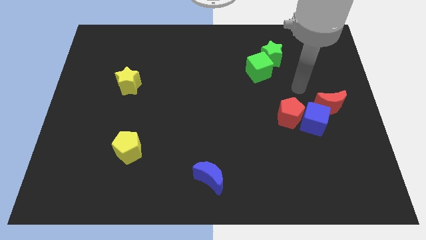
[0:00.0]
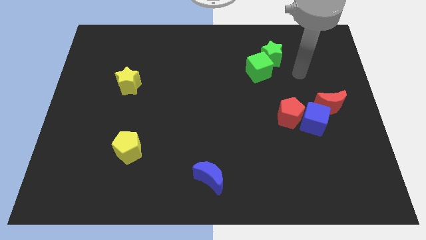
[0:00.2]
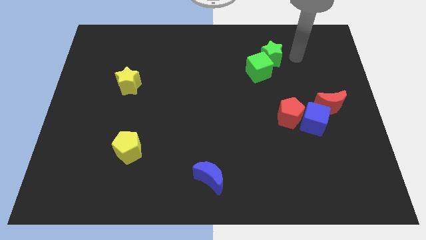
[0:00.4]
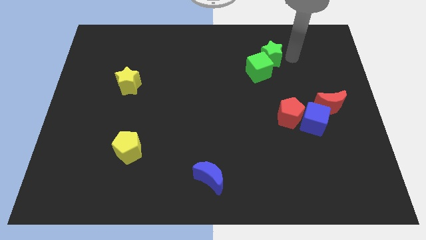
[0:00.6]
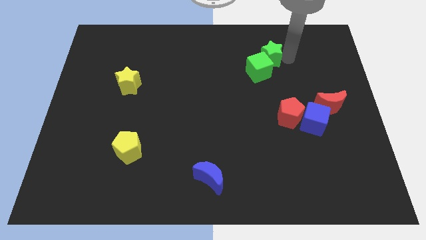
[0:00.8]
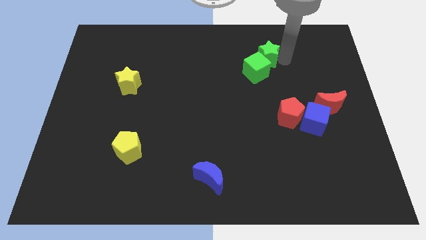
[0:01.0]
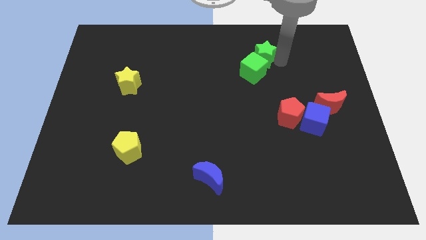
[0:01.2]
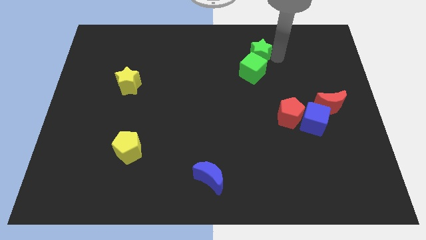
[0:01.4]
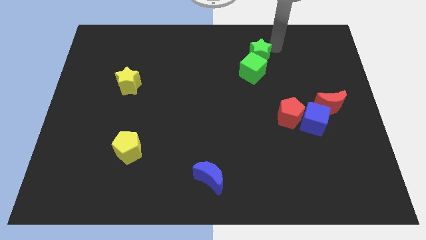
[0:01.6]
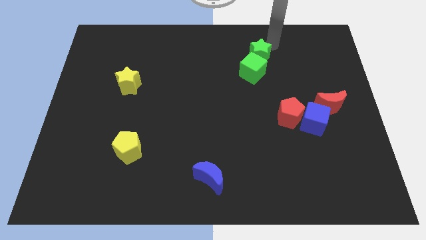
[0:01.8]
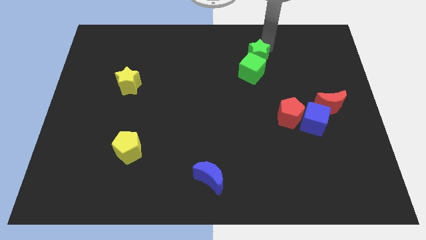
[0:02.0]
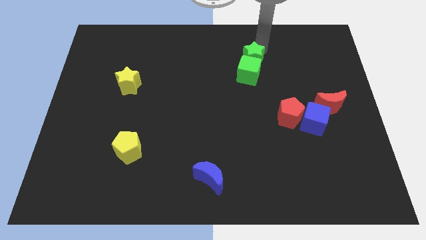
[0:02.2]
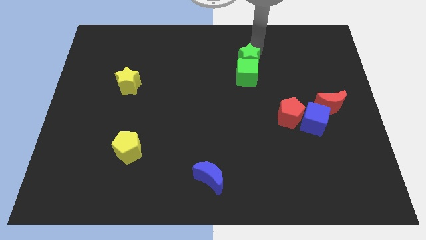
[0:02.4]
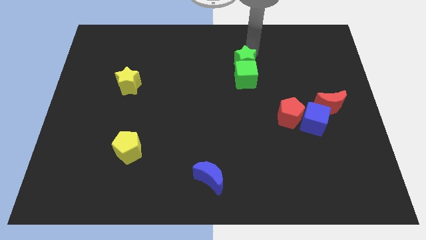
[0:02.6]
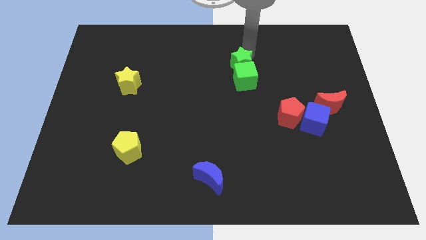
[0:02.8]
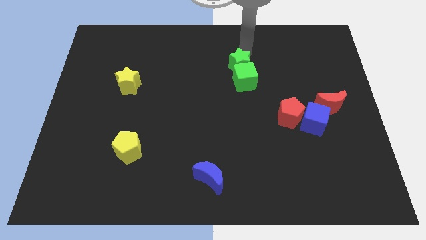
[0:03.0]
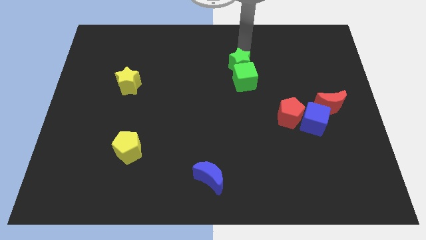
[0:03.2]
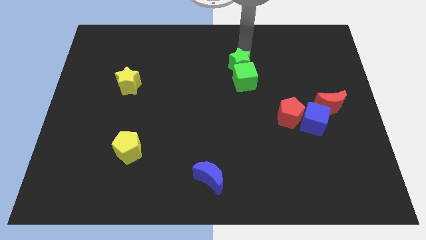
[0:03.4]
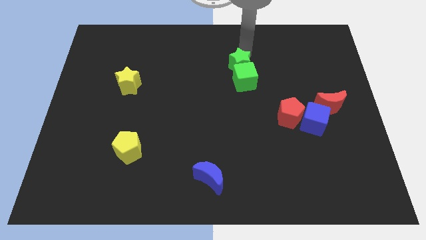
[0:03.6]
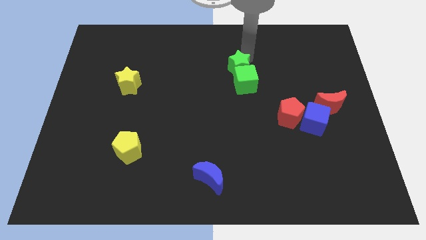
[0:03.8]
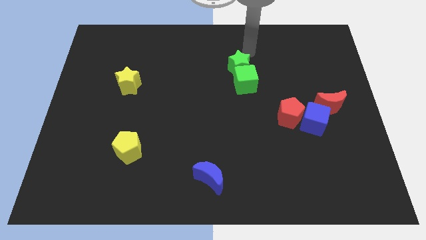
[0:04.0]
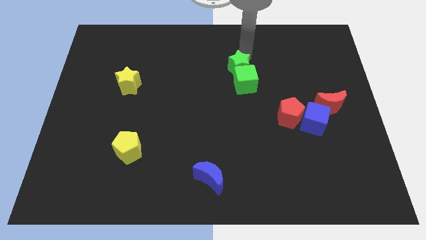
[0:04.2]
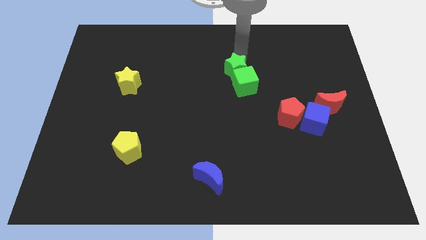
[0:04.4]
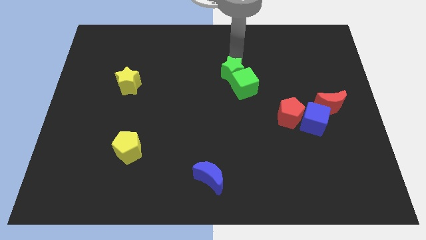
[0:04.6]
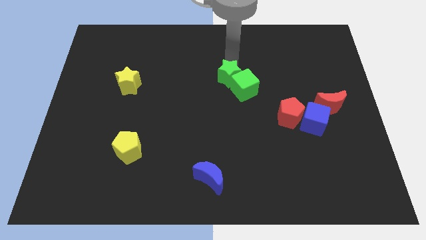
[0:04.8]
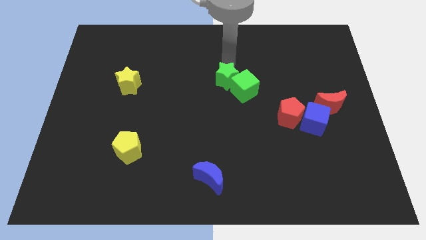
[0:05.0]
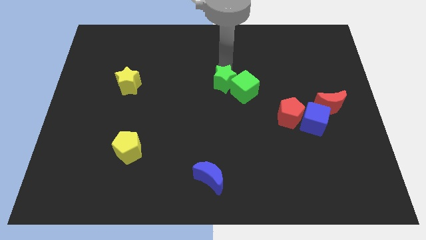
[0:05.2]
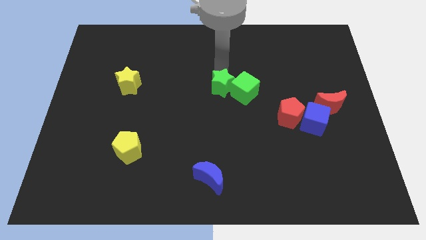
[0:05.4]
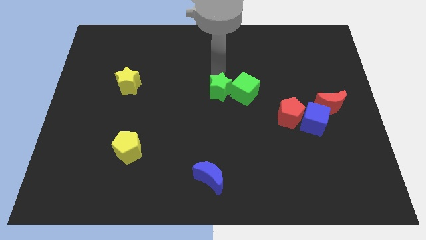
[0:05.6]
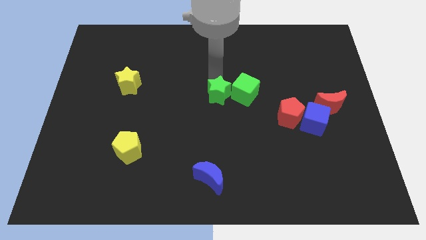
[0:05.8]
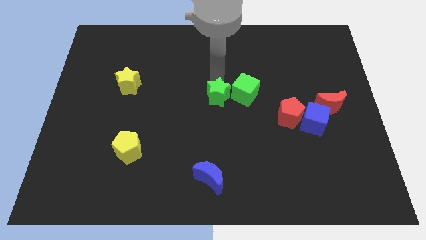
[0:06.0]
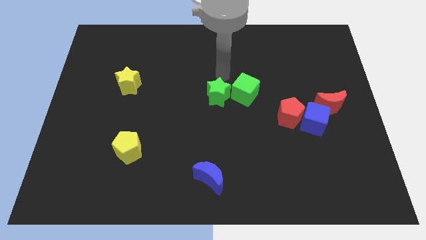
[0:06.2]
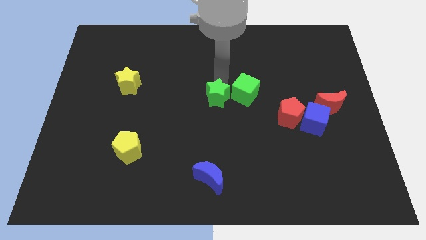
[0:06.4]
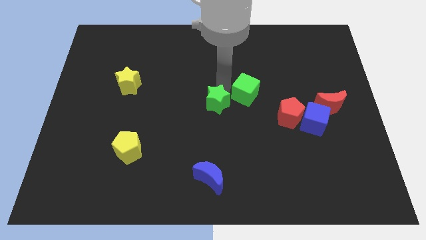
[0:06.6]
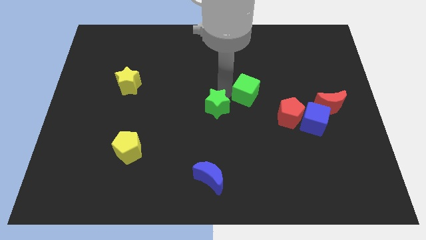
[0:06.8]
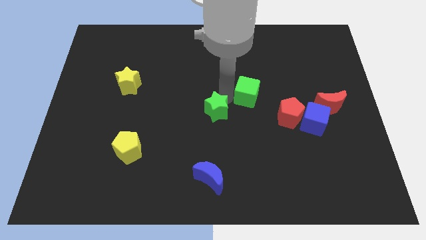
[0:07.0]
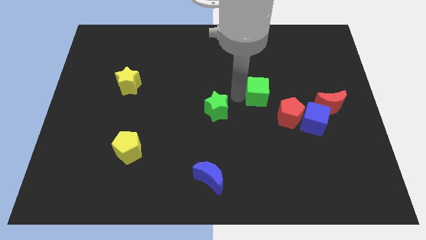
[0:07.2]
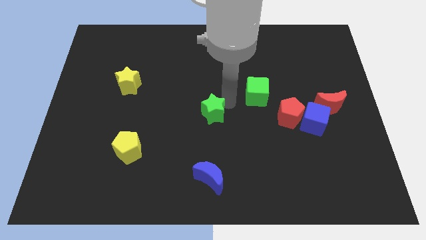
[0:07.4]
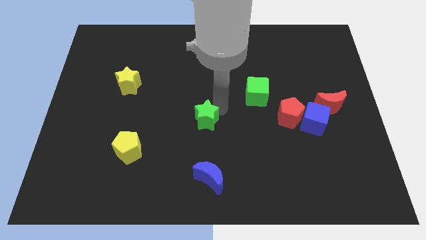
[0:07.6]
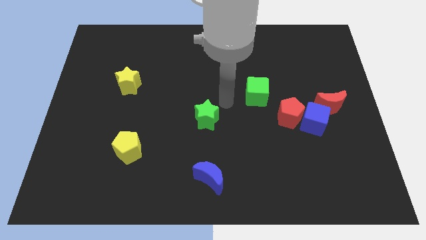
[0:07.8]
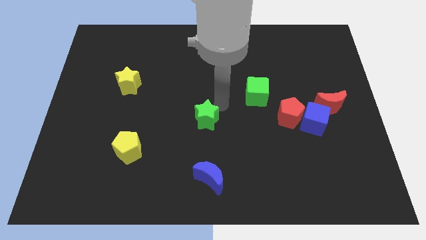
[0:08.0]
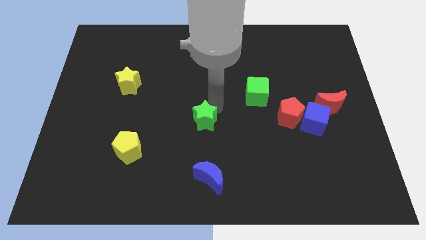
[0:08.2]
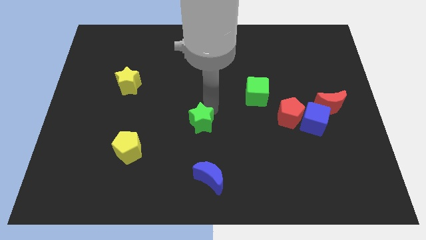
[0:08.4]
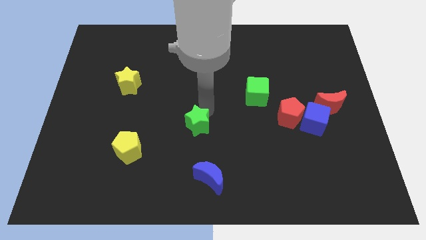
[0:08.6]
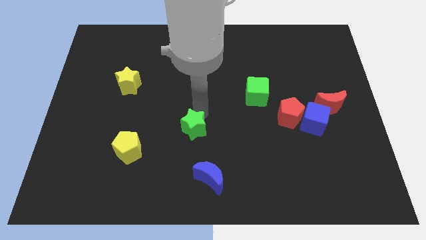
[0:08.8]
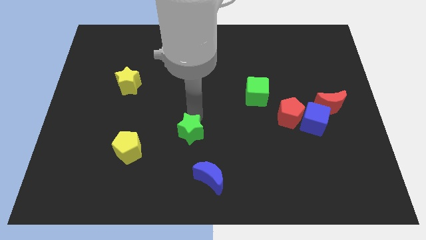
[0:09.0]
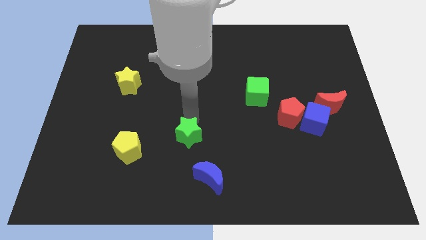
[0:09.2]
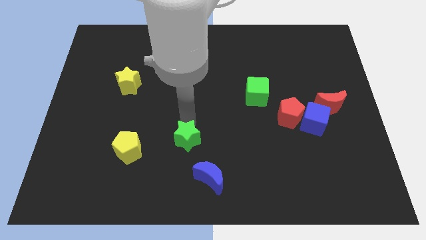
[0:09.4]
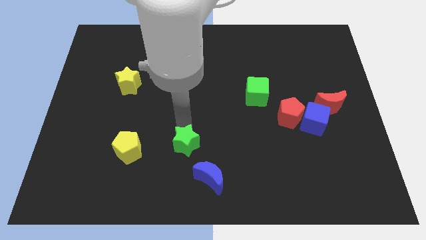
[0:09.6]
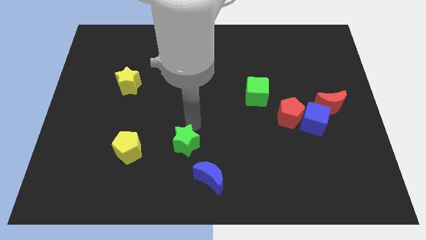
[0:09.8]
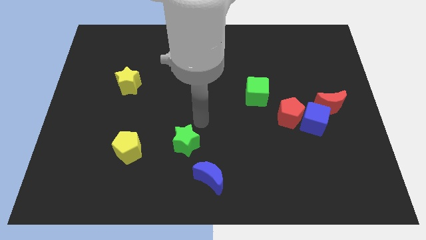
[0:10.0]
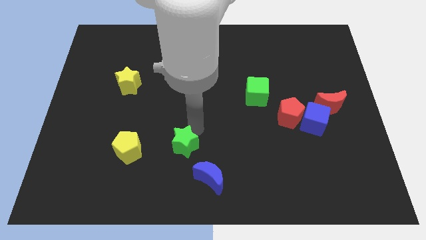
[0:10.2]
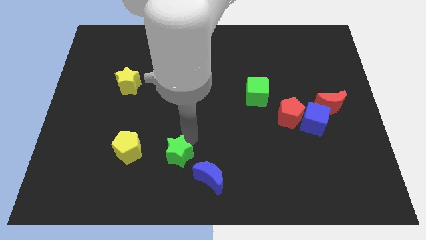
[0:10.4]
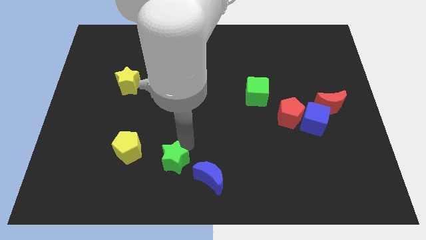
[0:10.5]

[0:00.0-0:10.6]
slide the green star to the left of the blue moon

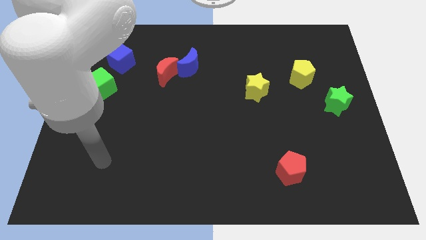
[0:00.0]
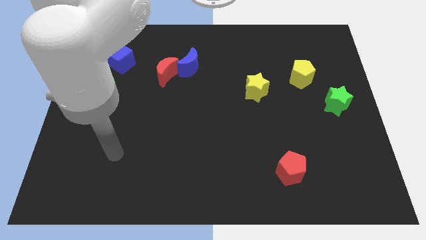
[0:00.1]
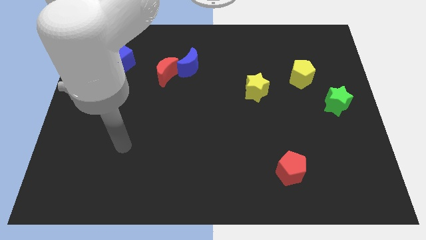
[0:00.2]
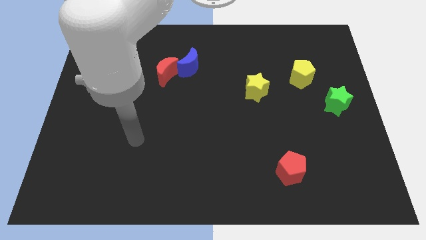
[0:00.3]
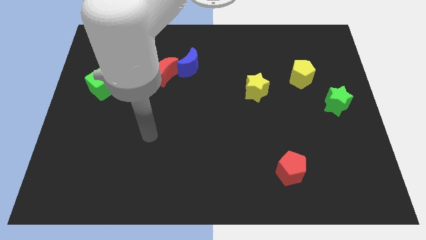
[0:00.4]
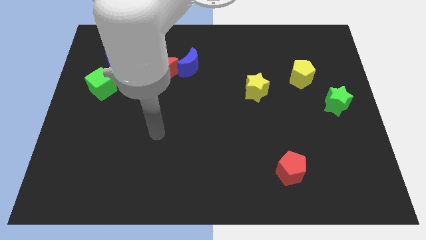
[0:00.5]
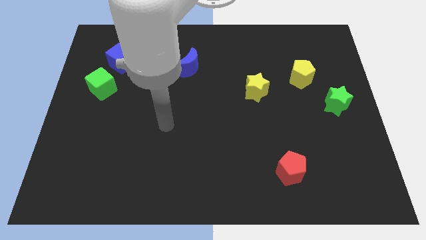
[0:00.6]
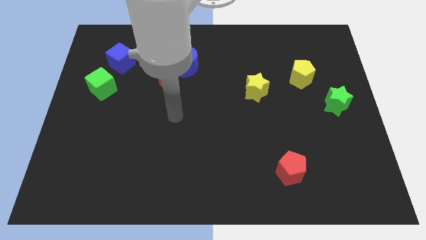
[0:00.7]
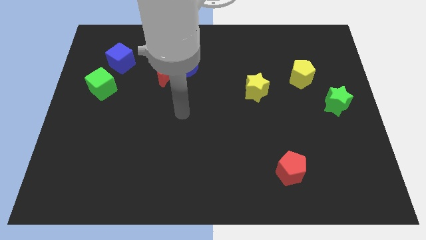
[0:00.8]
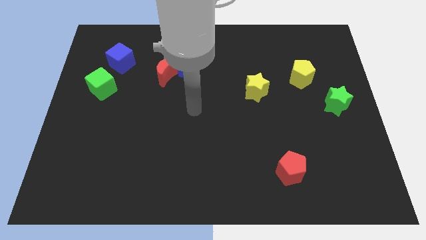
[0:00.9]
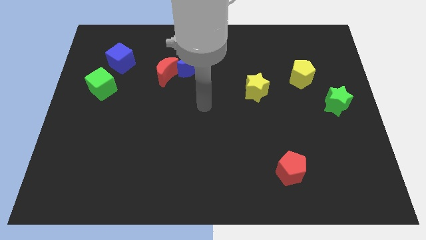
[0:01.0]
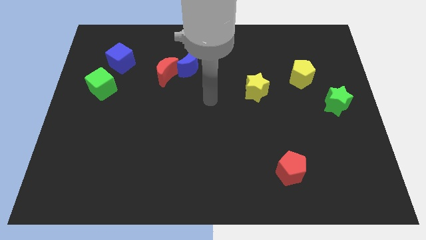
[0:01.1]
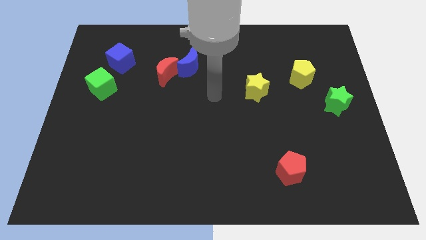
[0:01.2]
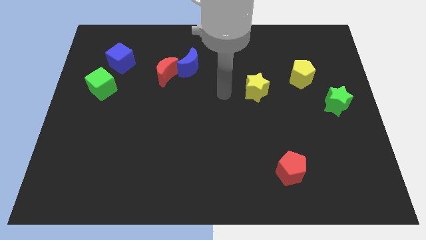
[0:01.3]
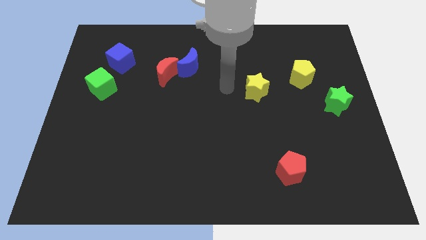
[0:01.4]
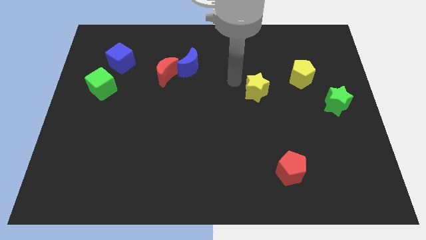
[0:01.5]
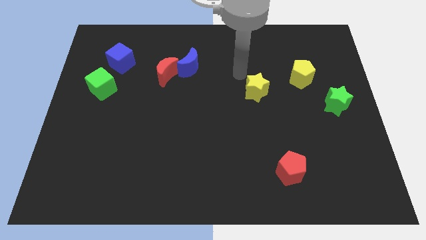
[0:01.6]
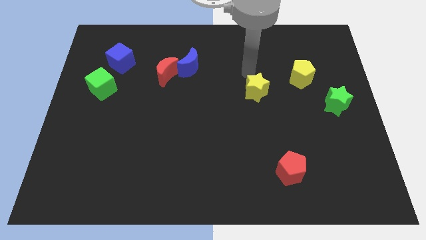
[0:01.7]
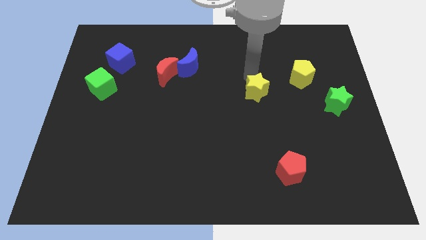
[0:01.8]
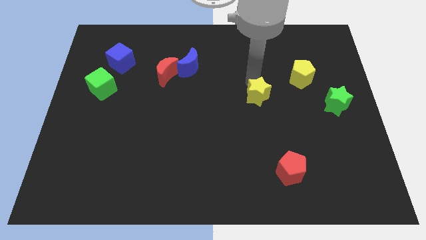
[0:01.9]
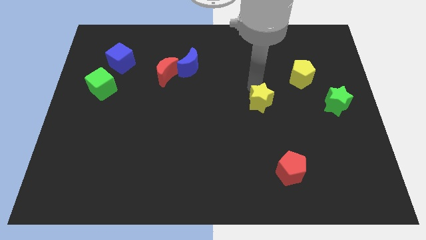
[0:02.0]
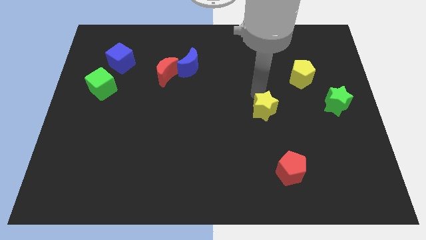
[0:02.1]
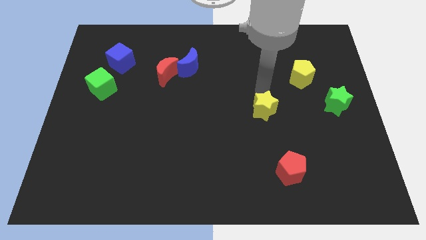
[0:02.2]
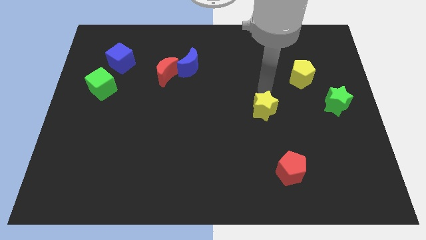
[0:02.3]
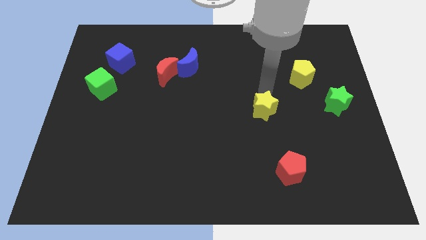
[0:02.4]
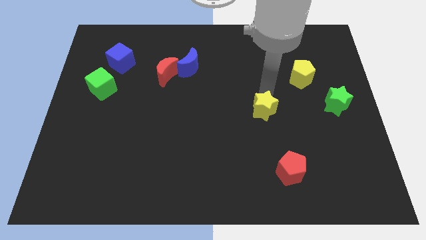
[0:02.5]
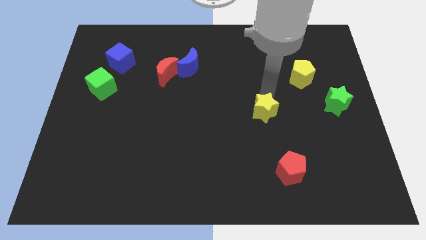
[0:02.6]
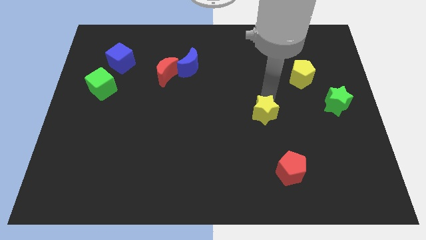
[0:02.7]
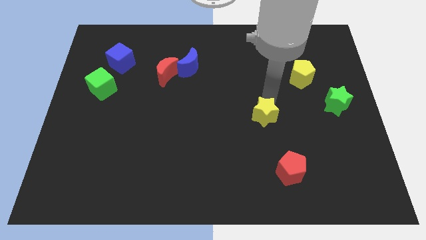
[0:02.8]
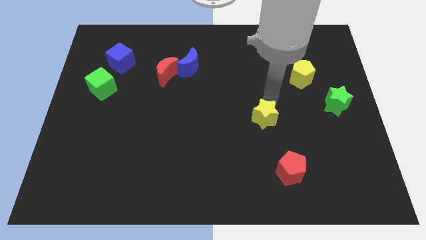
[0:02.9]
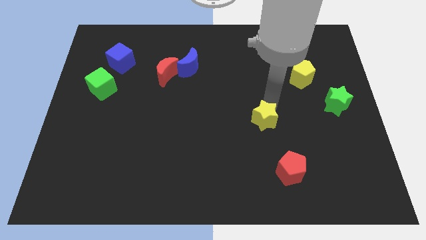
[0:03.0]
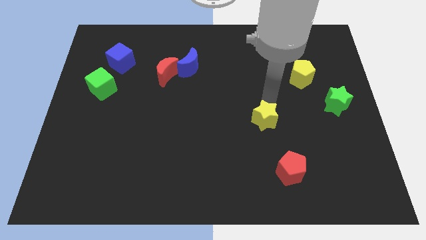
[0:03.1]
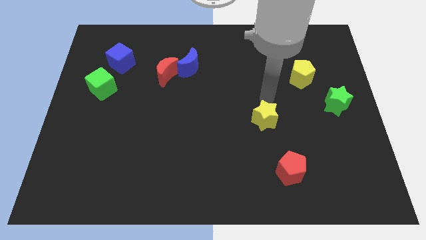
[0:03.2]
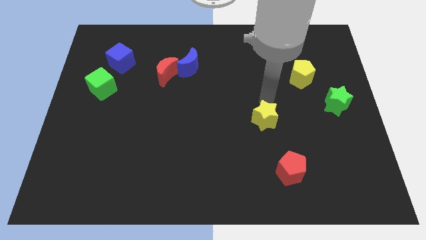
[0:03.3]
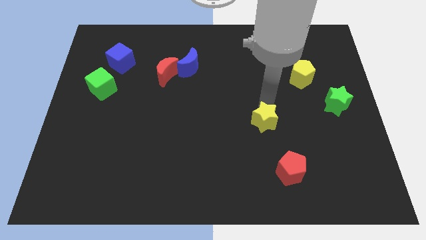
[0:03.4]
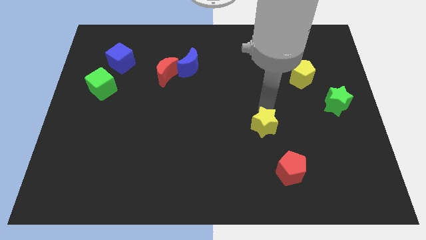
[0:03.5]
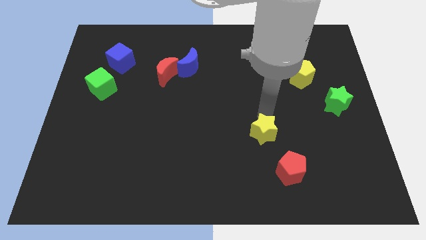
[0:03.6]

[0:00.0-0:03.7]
push the yellow star to the top left side of the red pentagon
